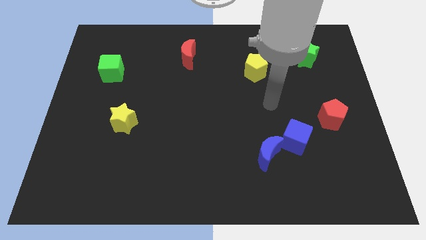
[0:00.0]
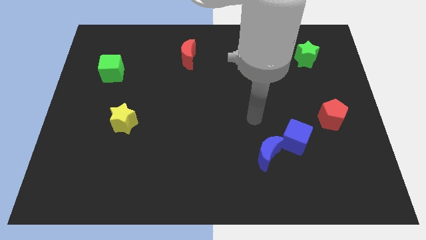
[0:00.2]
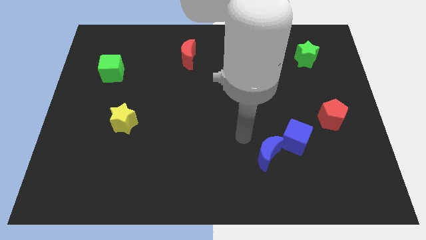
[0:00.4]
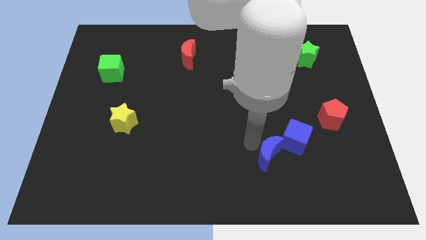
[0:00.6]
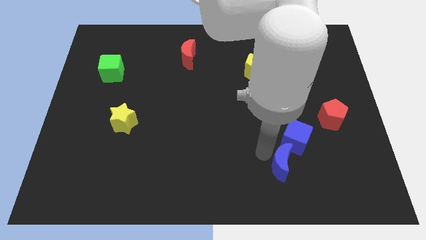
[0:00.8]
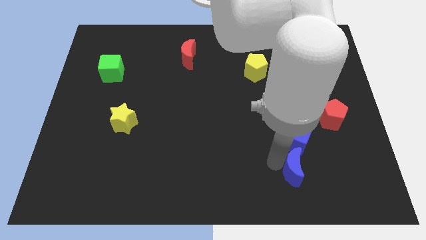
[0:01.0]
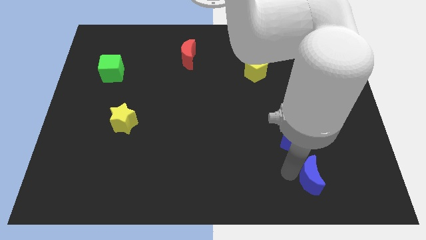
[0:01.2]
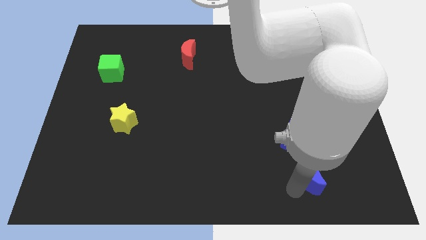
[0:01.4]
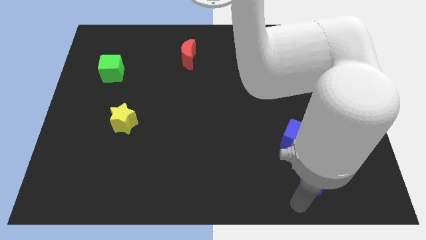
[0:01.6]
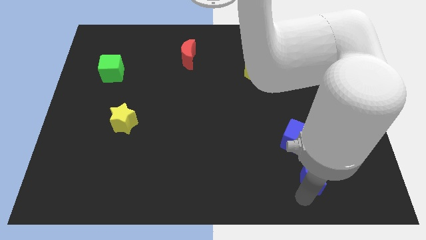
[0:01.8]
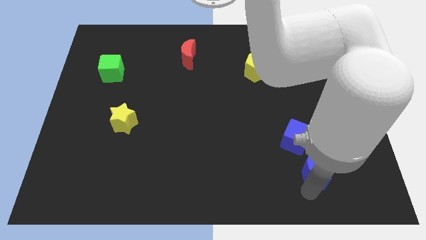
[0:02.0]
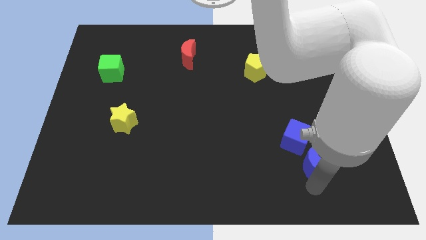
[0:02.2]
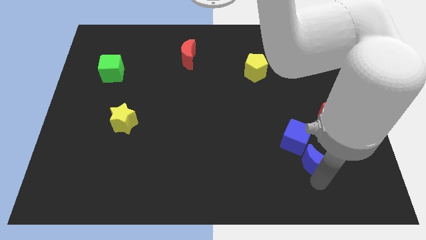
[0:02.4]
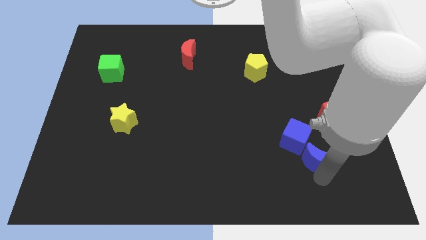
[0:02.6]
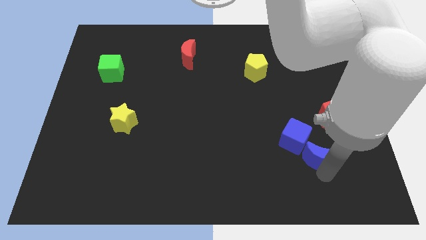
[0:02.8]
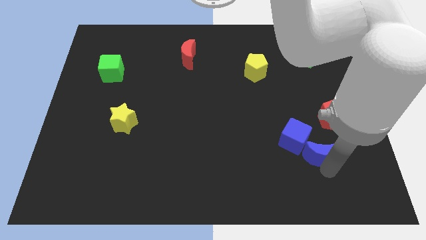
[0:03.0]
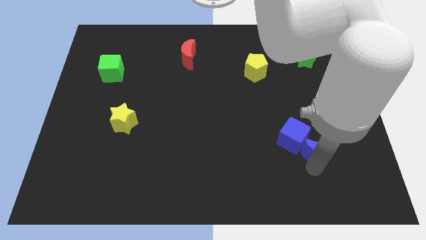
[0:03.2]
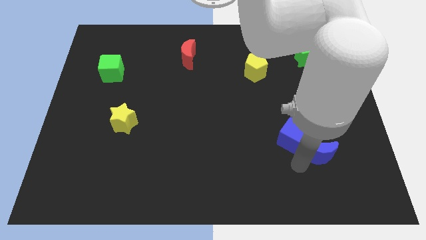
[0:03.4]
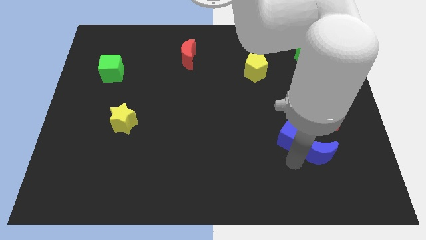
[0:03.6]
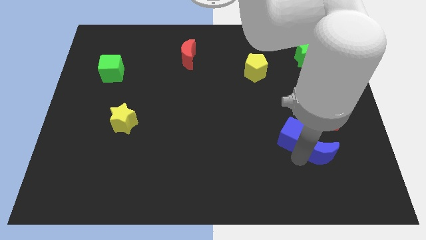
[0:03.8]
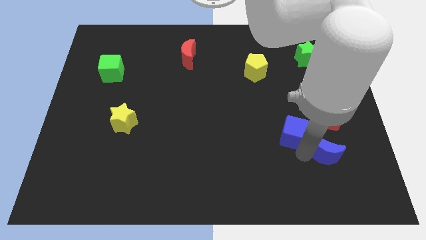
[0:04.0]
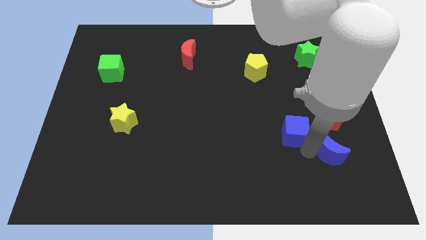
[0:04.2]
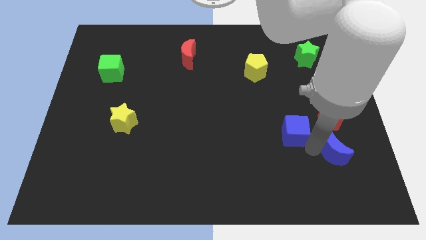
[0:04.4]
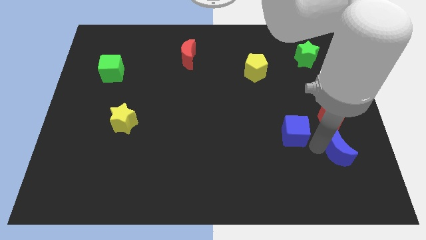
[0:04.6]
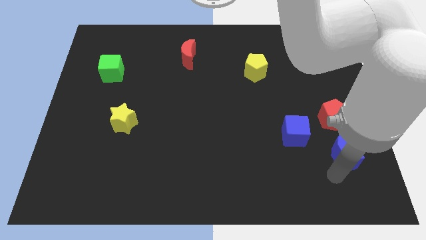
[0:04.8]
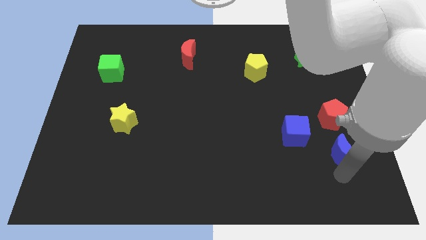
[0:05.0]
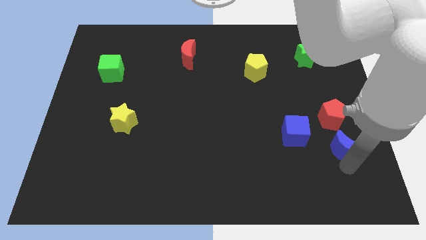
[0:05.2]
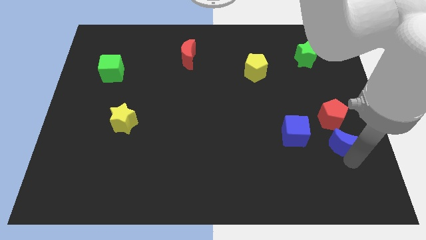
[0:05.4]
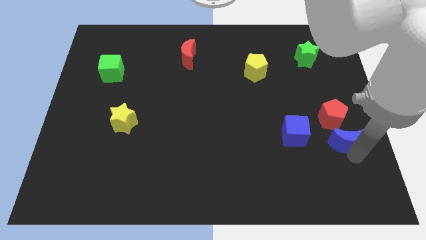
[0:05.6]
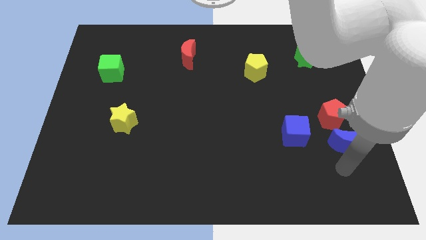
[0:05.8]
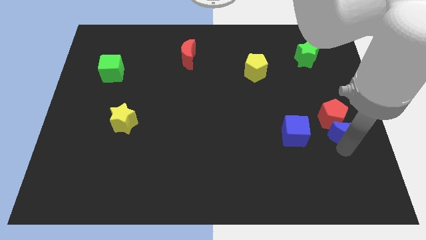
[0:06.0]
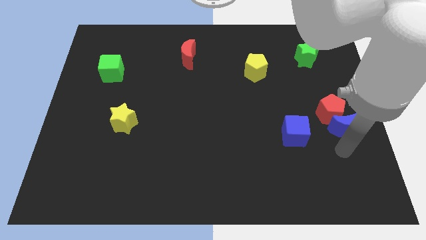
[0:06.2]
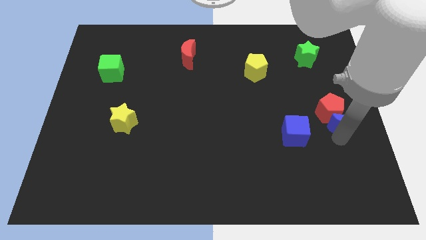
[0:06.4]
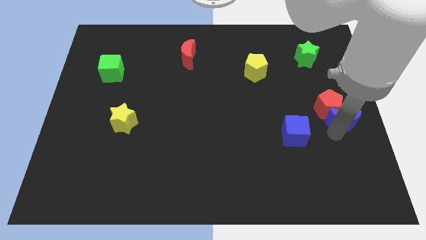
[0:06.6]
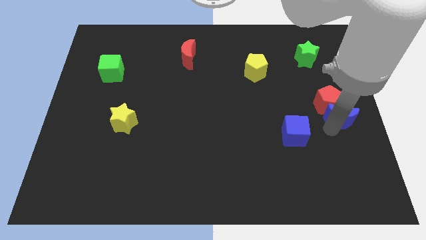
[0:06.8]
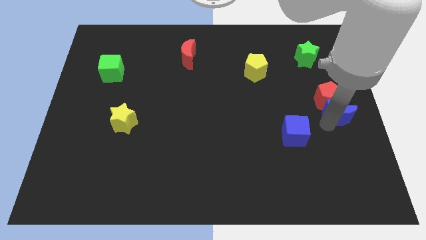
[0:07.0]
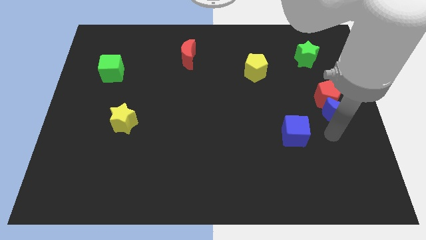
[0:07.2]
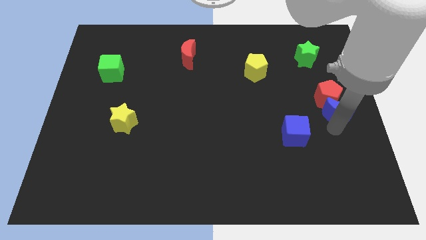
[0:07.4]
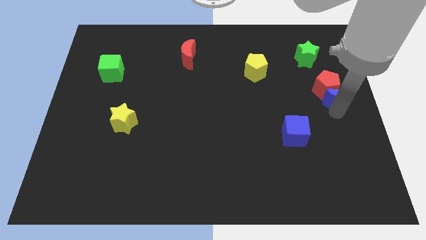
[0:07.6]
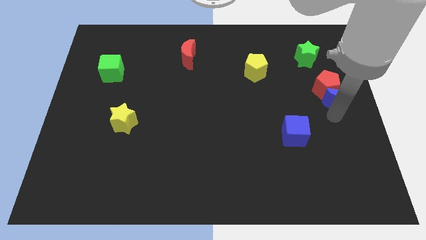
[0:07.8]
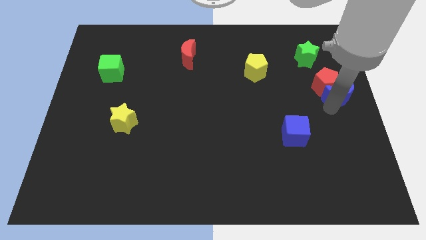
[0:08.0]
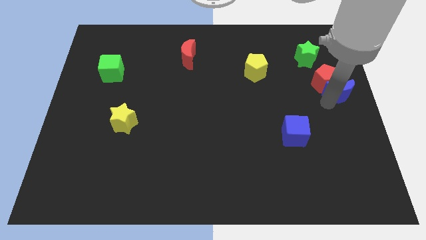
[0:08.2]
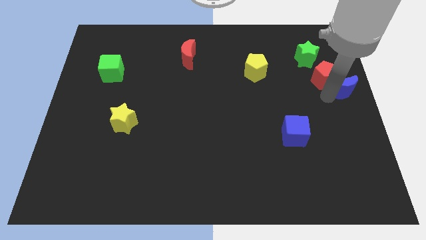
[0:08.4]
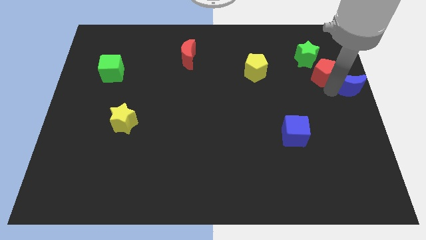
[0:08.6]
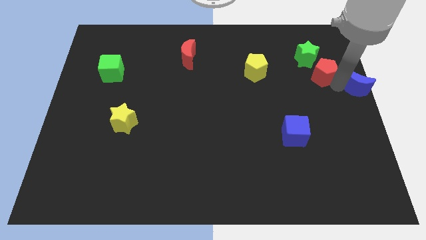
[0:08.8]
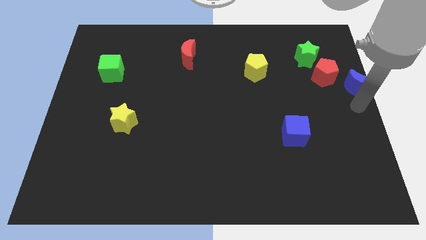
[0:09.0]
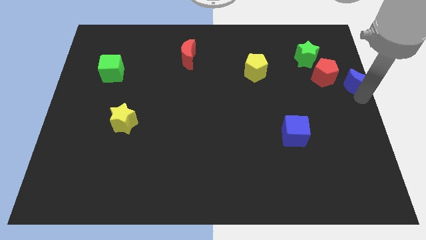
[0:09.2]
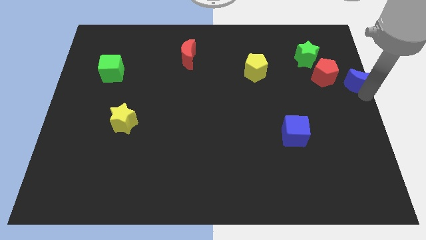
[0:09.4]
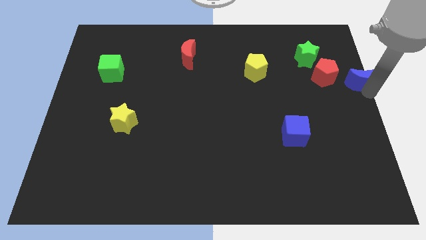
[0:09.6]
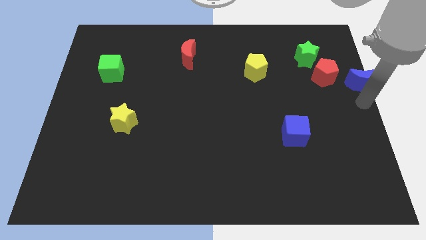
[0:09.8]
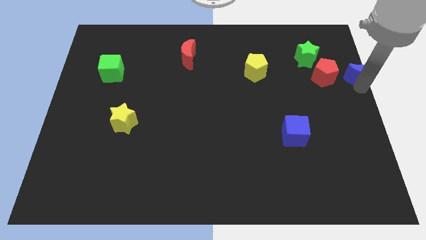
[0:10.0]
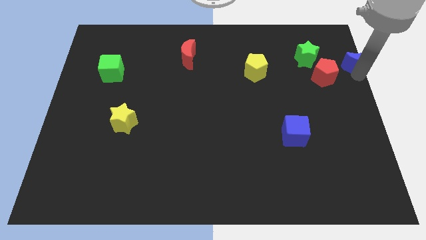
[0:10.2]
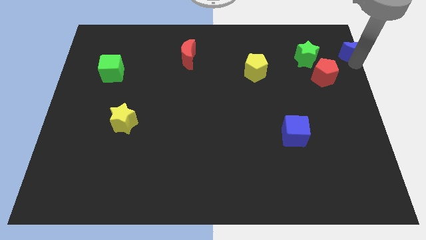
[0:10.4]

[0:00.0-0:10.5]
push the blue moon to the top right
